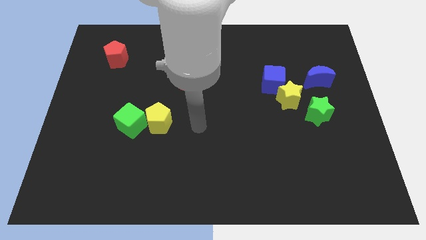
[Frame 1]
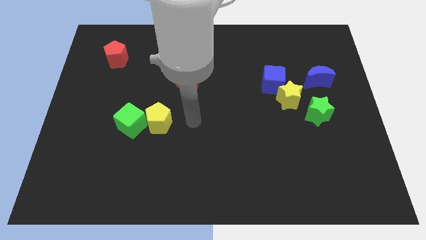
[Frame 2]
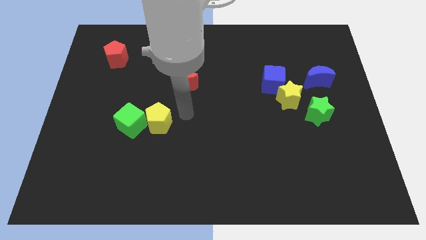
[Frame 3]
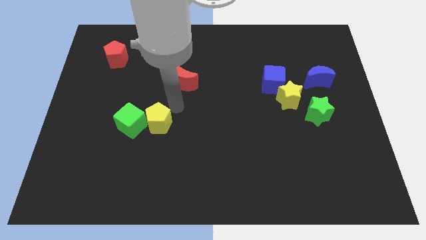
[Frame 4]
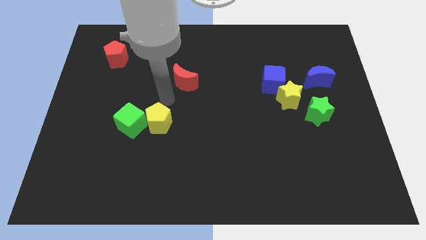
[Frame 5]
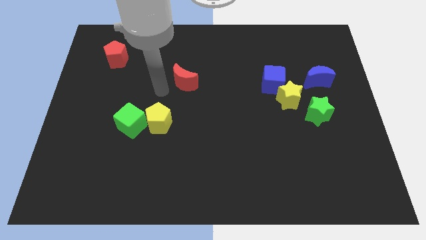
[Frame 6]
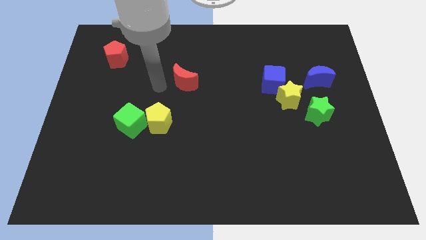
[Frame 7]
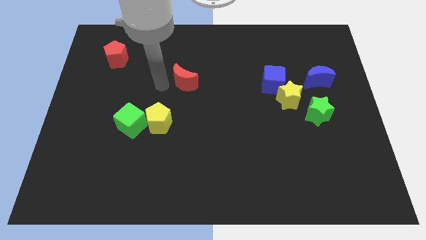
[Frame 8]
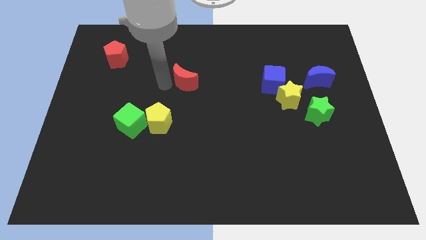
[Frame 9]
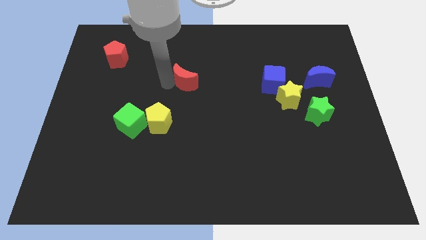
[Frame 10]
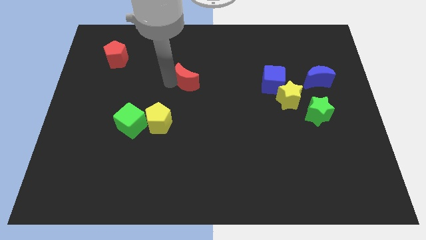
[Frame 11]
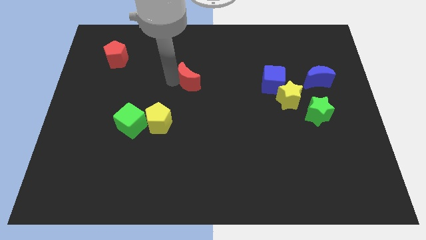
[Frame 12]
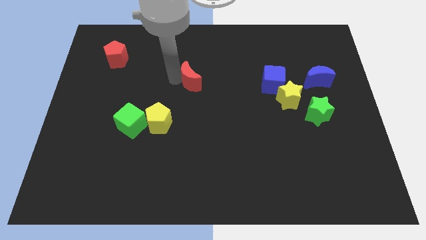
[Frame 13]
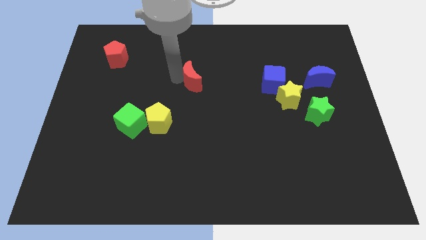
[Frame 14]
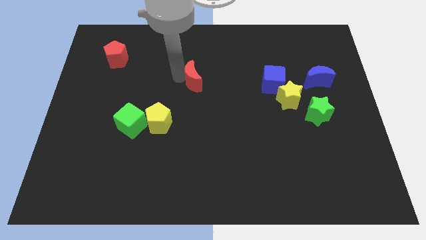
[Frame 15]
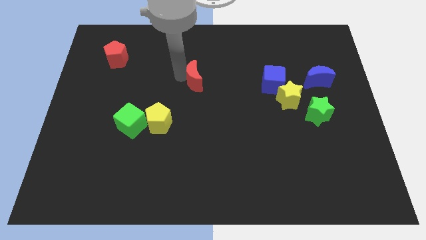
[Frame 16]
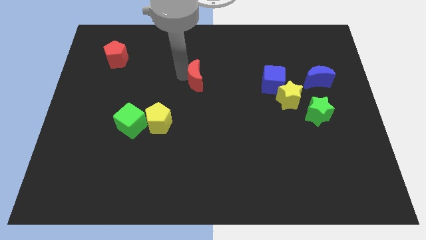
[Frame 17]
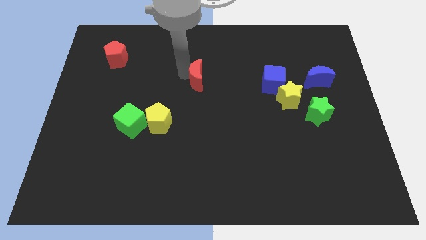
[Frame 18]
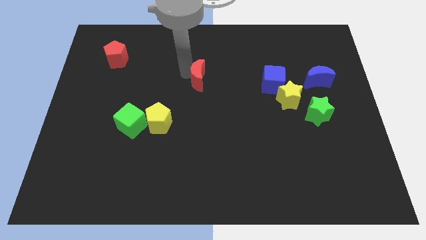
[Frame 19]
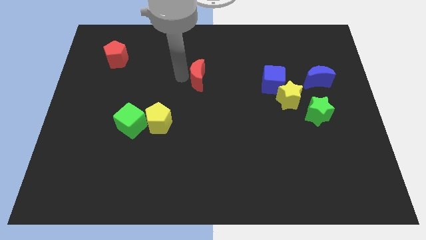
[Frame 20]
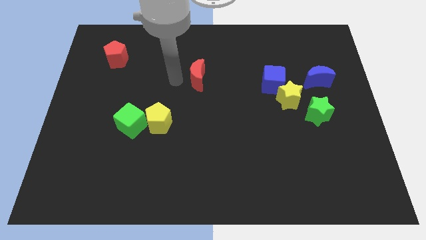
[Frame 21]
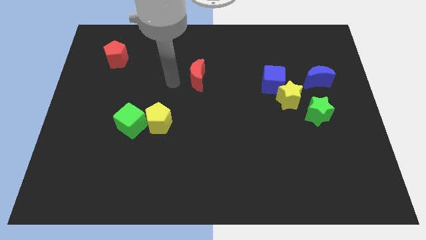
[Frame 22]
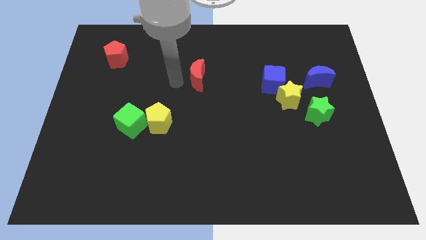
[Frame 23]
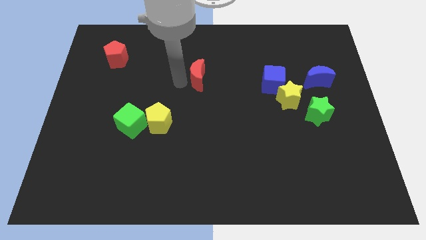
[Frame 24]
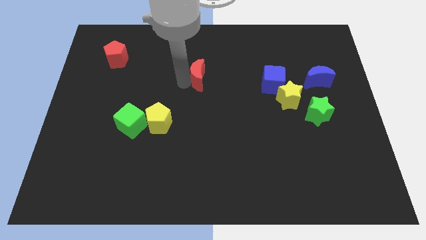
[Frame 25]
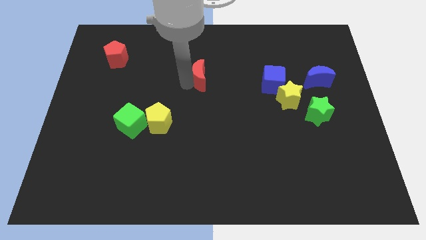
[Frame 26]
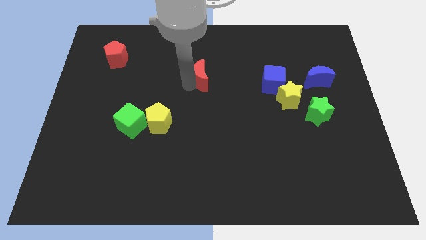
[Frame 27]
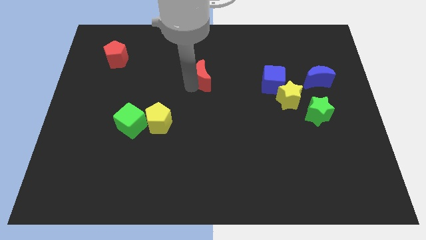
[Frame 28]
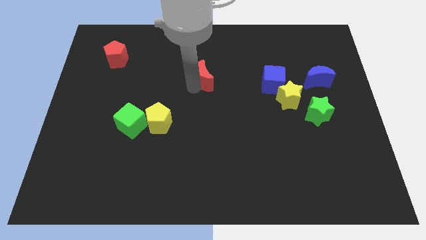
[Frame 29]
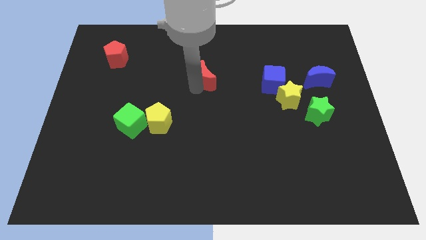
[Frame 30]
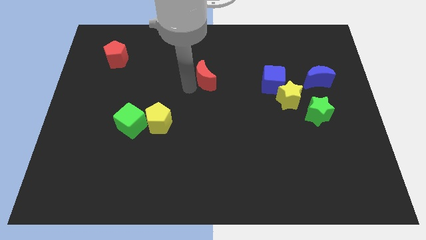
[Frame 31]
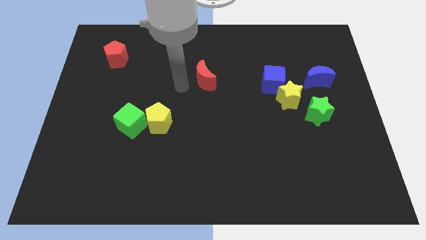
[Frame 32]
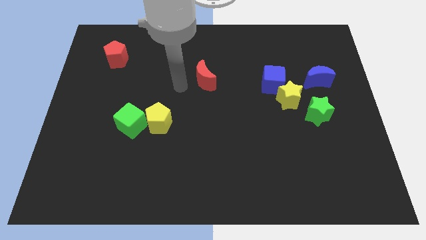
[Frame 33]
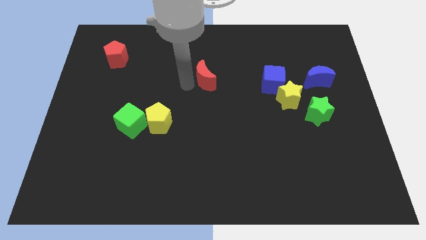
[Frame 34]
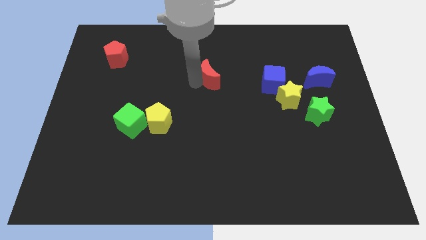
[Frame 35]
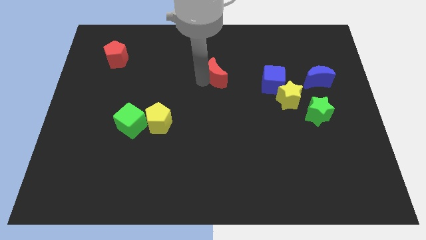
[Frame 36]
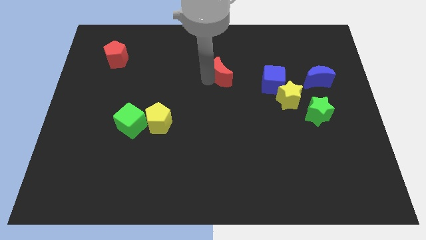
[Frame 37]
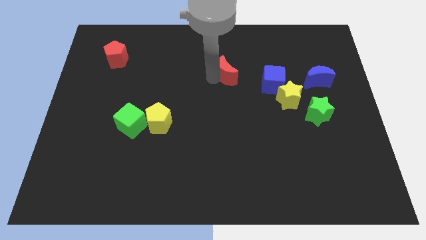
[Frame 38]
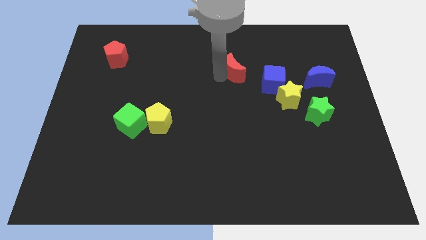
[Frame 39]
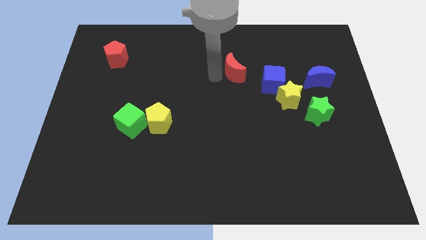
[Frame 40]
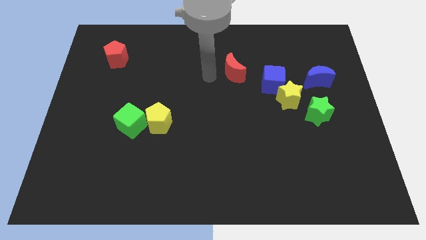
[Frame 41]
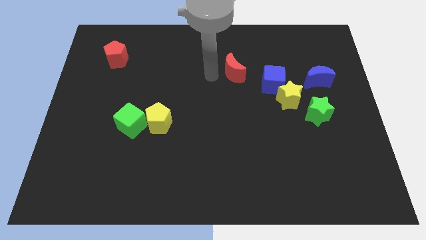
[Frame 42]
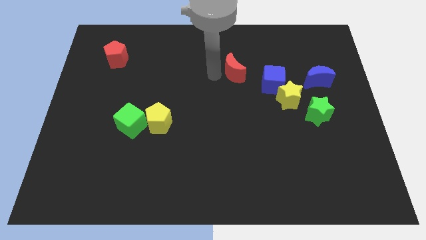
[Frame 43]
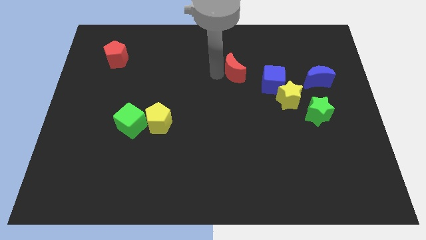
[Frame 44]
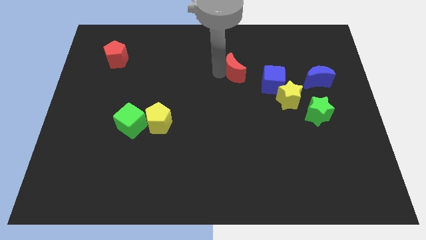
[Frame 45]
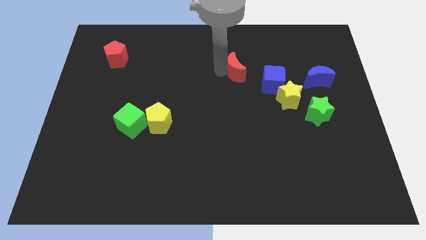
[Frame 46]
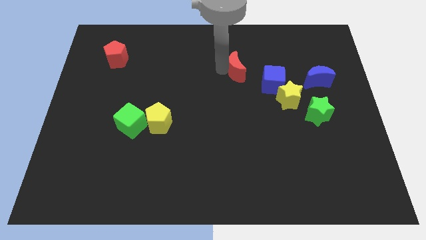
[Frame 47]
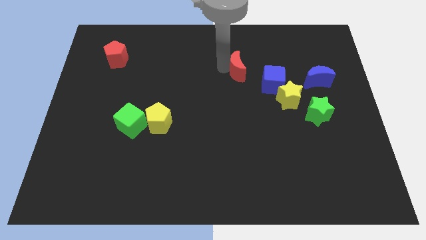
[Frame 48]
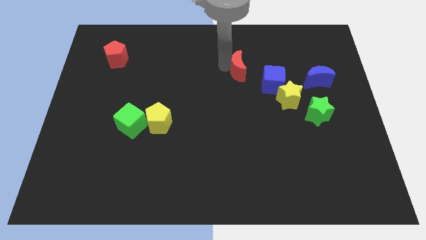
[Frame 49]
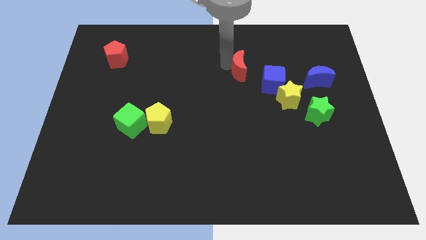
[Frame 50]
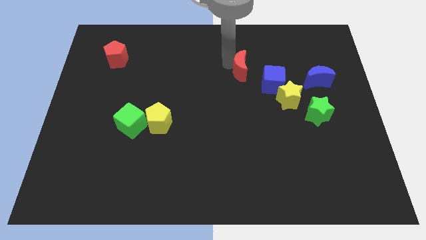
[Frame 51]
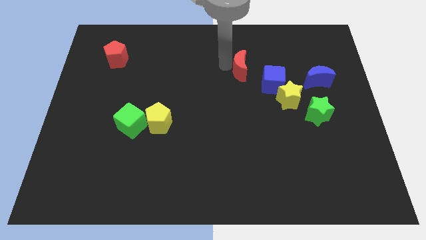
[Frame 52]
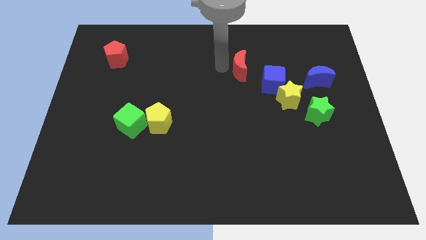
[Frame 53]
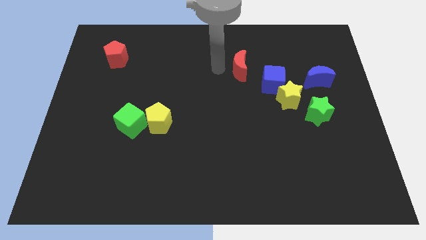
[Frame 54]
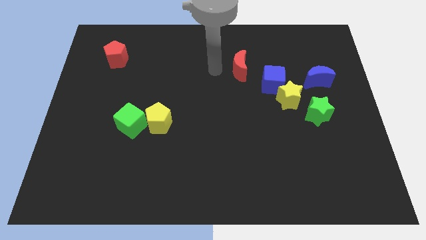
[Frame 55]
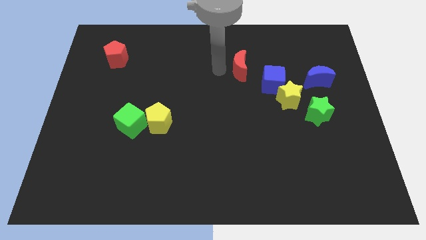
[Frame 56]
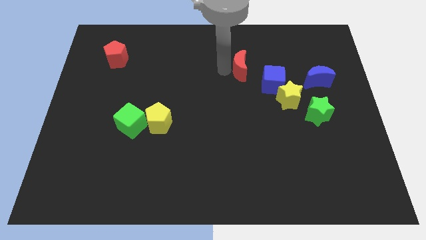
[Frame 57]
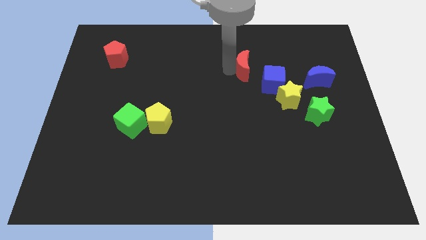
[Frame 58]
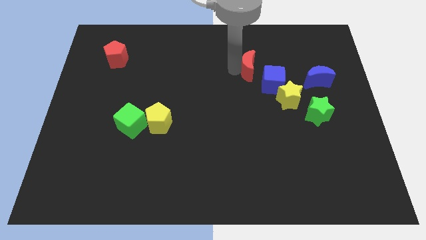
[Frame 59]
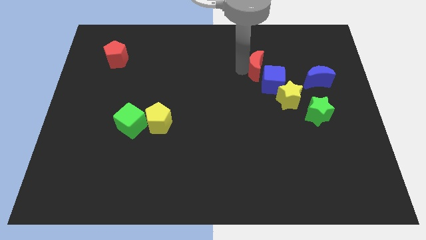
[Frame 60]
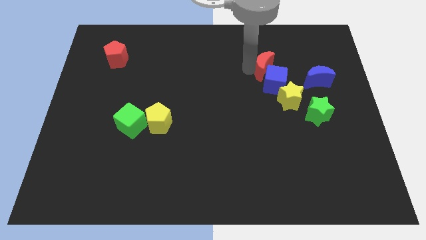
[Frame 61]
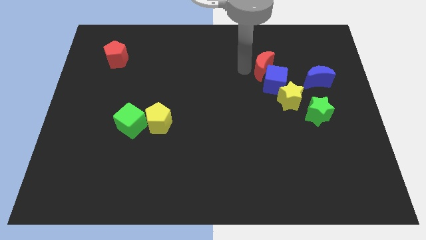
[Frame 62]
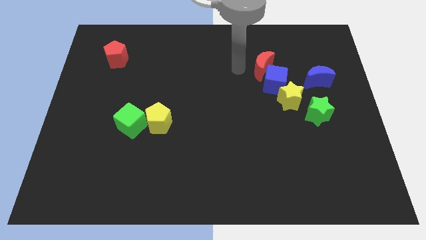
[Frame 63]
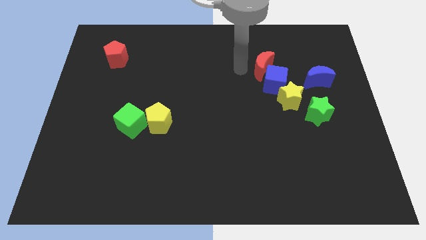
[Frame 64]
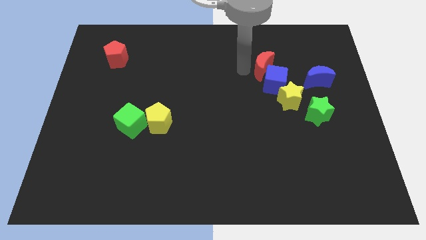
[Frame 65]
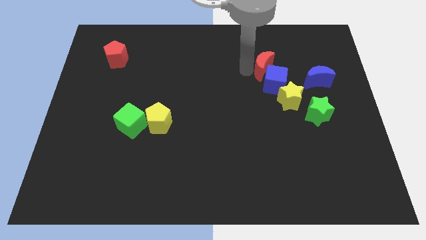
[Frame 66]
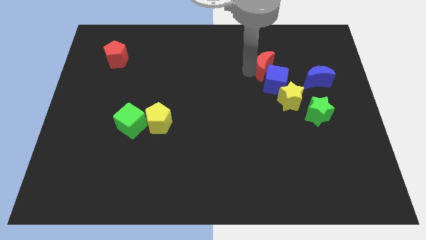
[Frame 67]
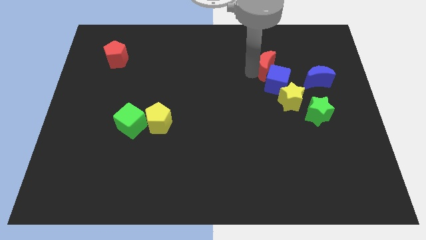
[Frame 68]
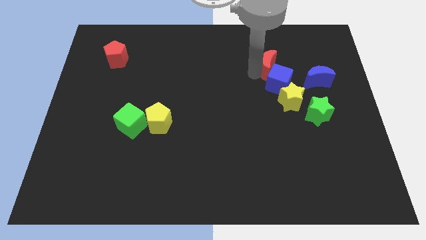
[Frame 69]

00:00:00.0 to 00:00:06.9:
slide the red moon to the top side of the yellow star

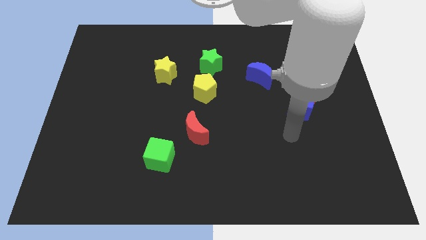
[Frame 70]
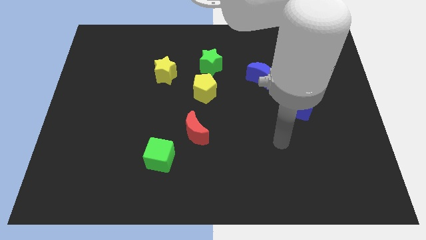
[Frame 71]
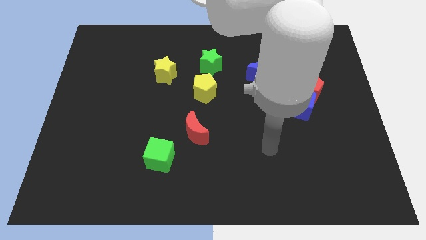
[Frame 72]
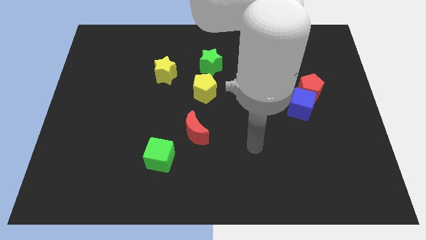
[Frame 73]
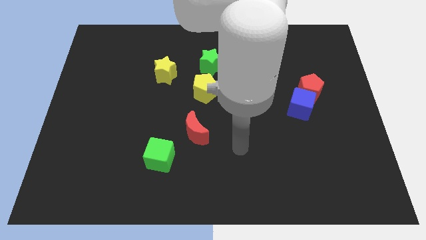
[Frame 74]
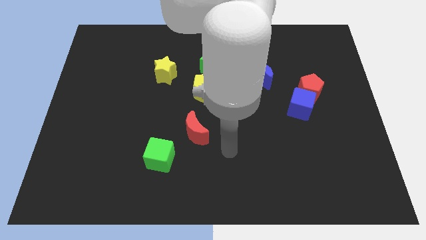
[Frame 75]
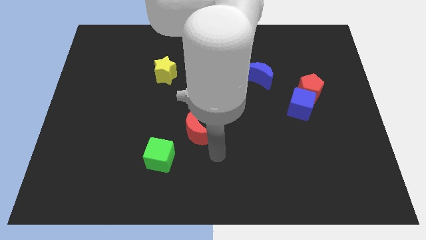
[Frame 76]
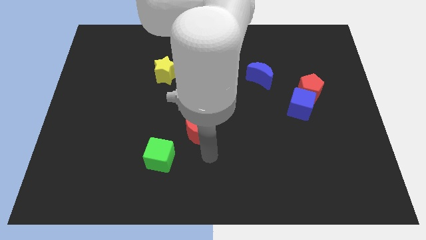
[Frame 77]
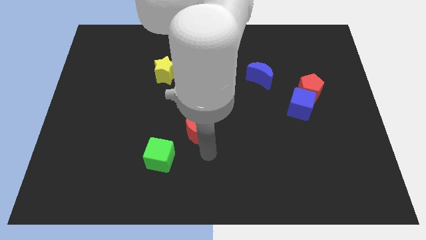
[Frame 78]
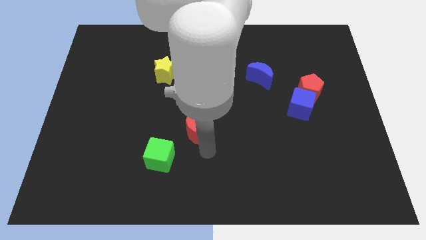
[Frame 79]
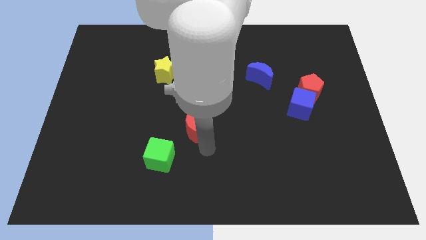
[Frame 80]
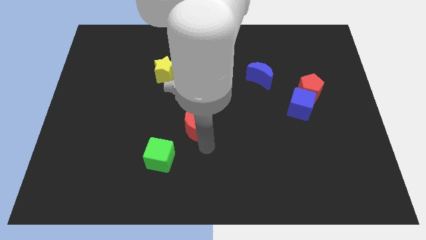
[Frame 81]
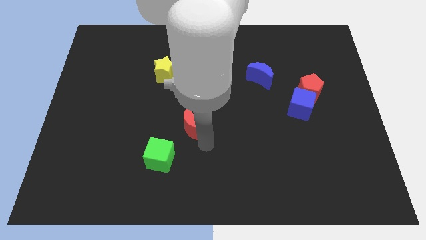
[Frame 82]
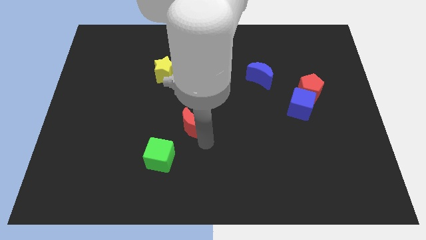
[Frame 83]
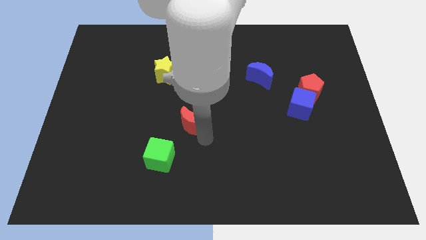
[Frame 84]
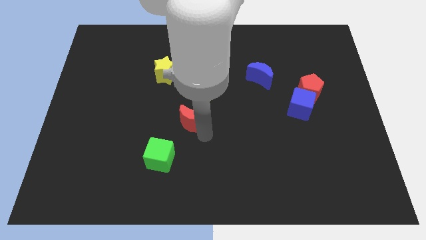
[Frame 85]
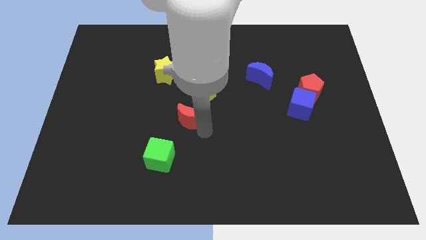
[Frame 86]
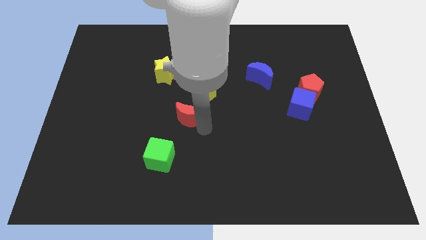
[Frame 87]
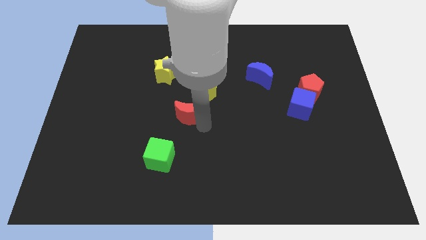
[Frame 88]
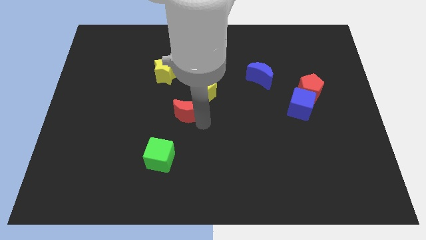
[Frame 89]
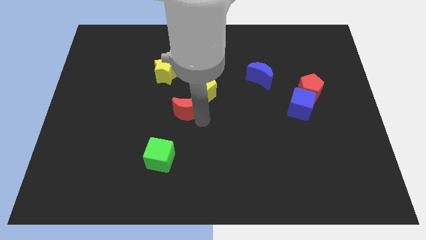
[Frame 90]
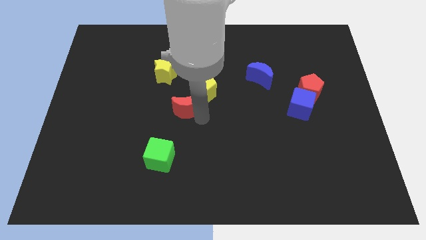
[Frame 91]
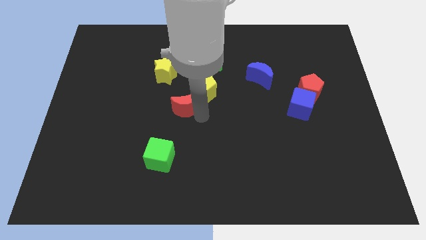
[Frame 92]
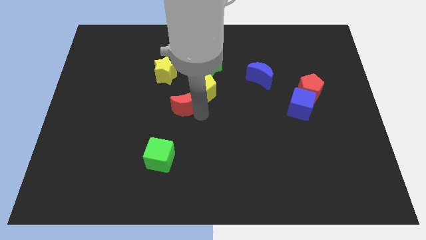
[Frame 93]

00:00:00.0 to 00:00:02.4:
move the red moon to the left side of the yellow pentagon
